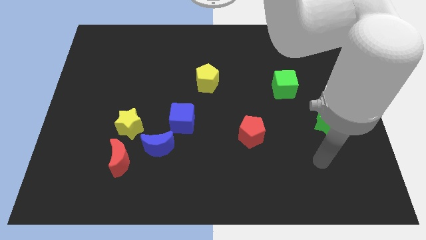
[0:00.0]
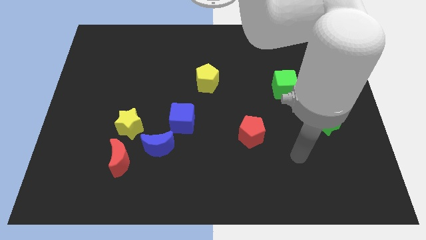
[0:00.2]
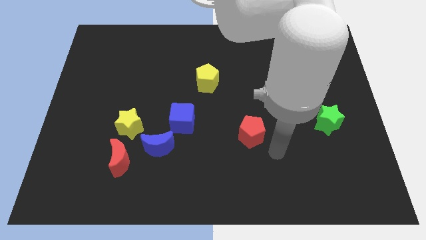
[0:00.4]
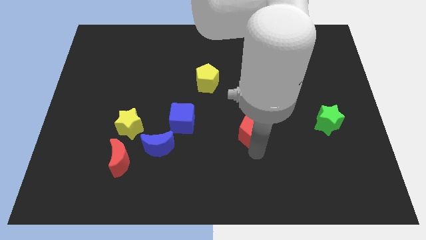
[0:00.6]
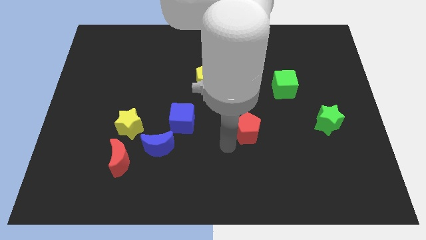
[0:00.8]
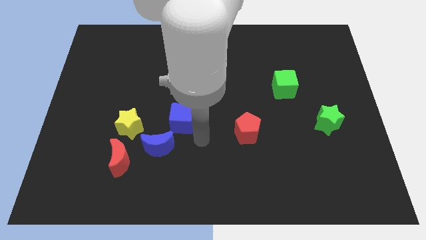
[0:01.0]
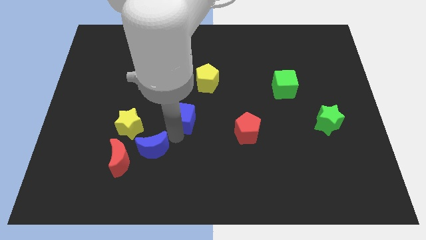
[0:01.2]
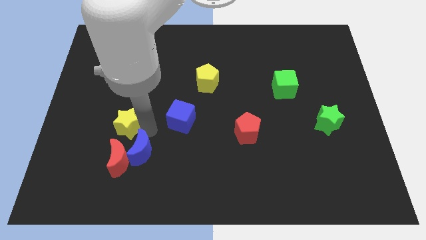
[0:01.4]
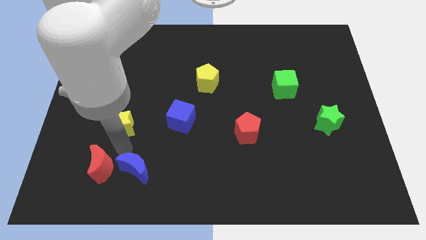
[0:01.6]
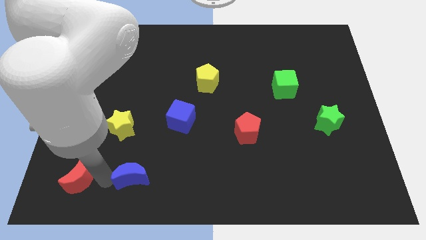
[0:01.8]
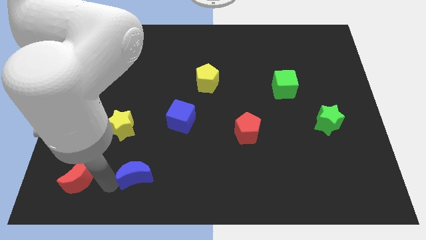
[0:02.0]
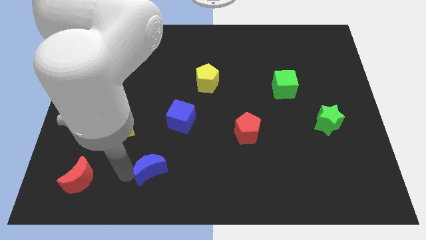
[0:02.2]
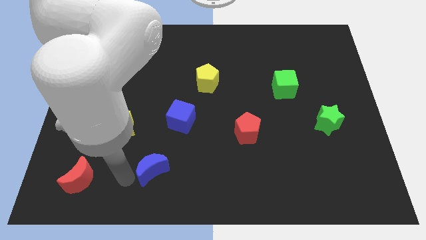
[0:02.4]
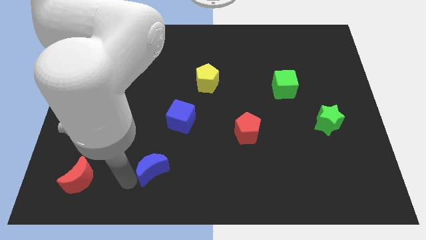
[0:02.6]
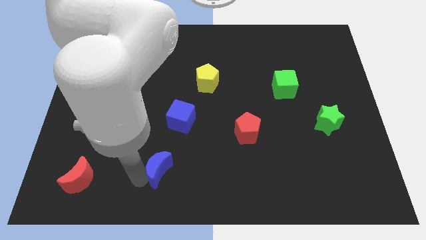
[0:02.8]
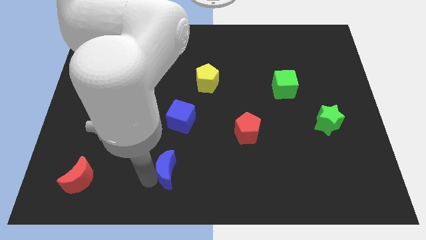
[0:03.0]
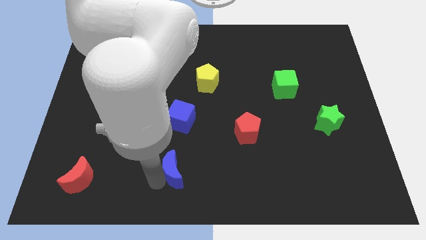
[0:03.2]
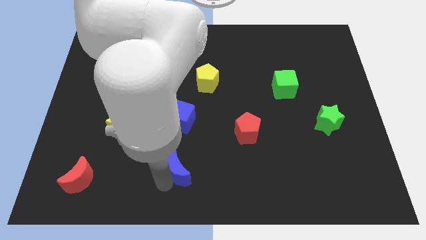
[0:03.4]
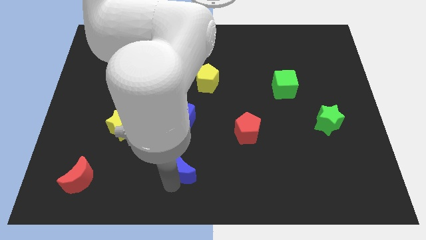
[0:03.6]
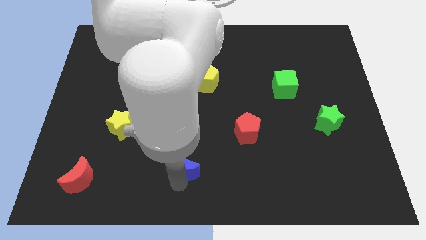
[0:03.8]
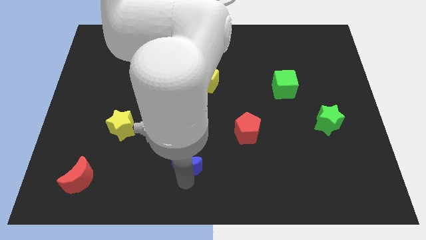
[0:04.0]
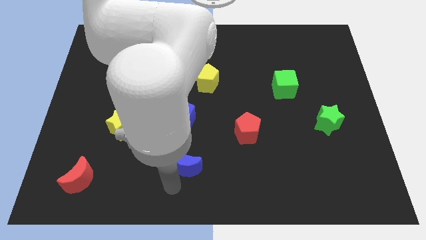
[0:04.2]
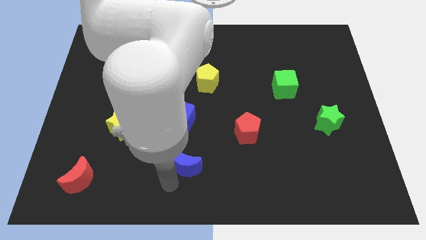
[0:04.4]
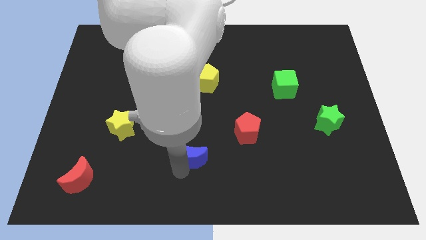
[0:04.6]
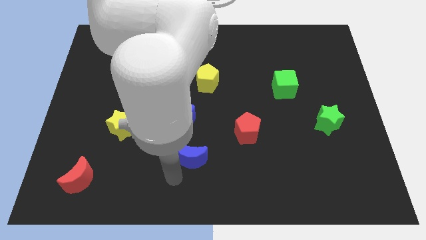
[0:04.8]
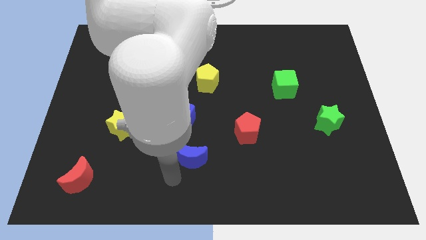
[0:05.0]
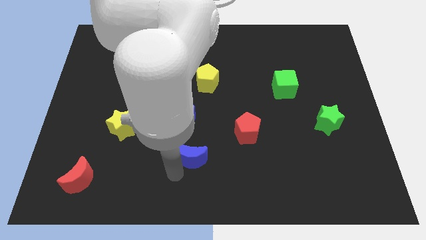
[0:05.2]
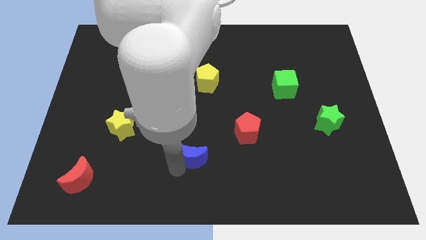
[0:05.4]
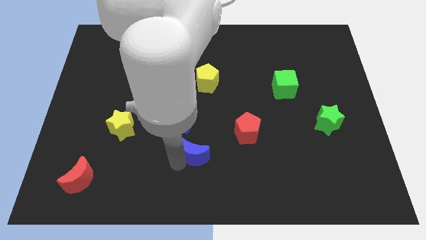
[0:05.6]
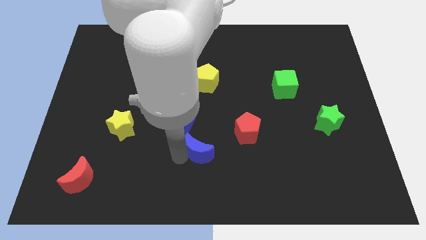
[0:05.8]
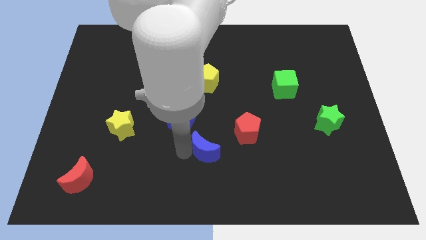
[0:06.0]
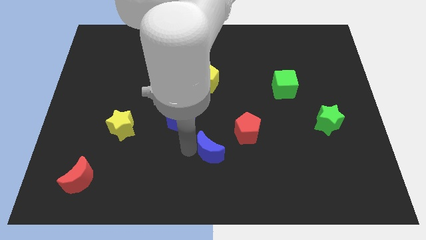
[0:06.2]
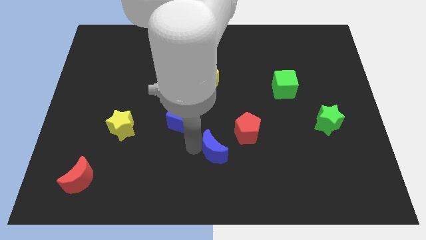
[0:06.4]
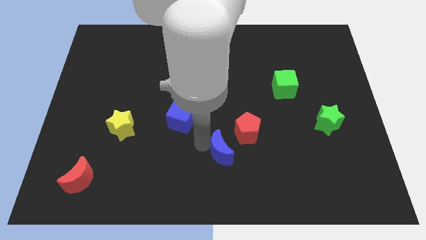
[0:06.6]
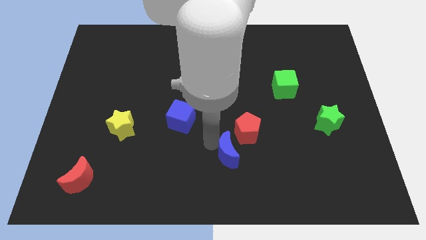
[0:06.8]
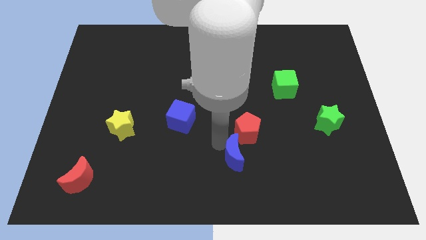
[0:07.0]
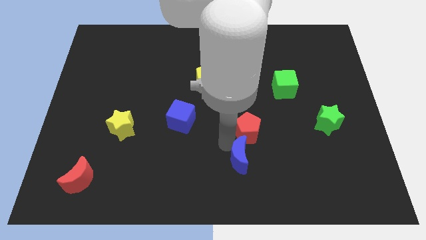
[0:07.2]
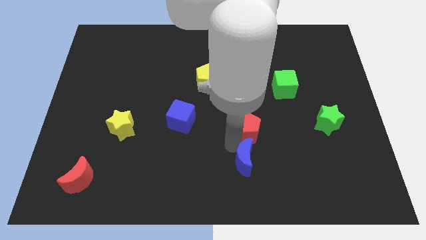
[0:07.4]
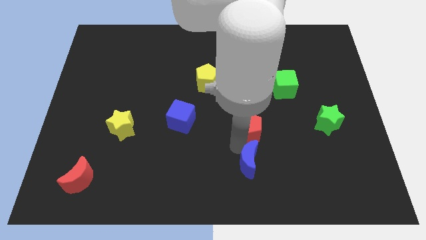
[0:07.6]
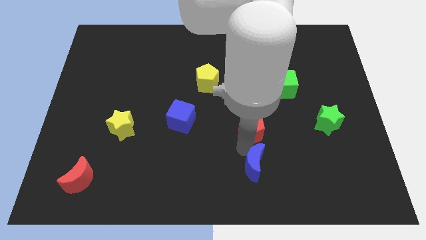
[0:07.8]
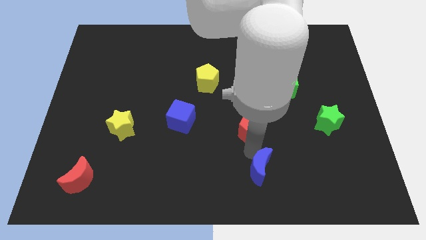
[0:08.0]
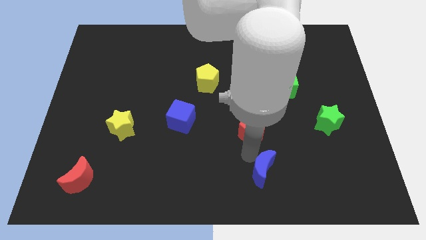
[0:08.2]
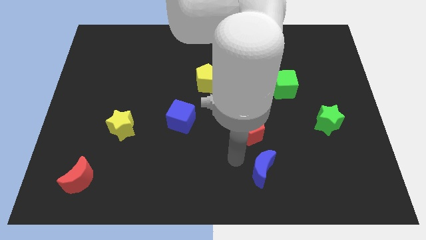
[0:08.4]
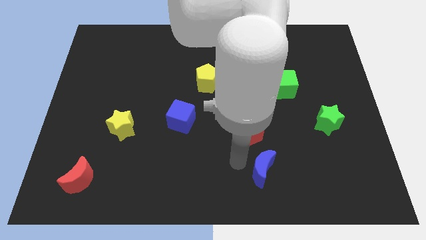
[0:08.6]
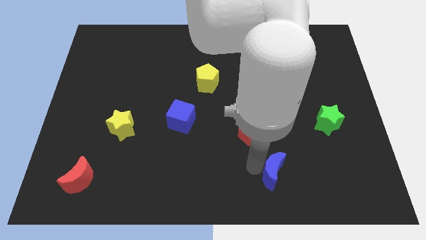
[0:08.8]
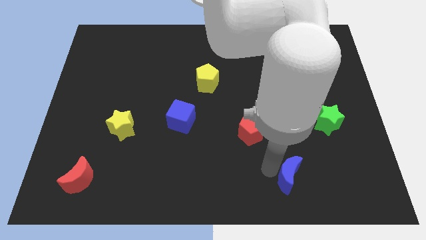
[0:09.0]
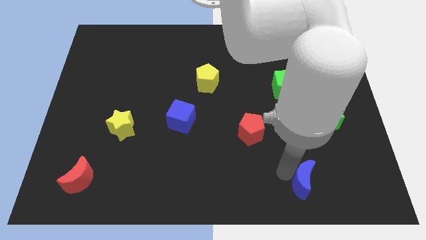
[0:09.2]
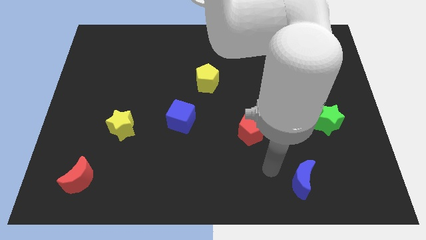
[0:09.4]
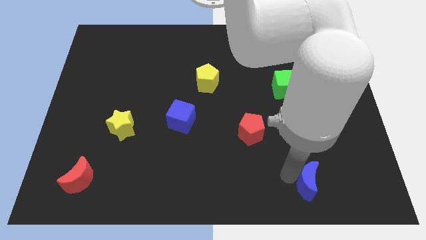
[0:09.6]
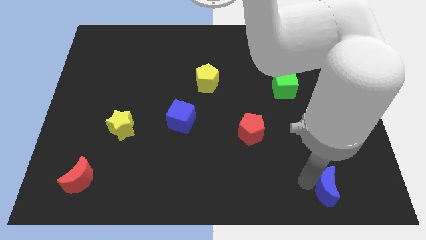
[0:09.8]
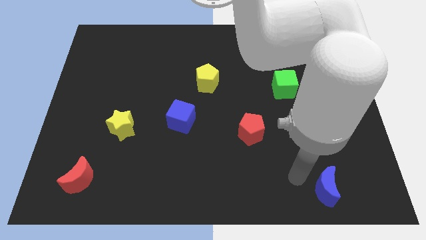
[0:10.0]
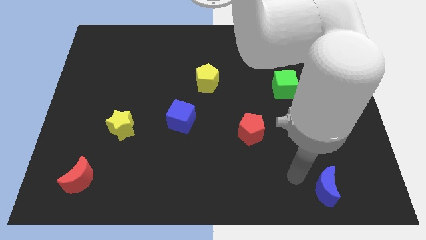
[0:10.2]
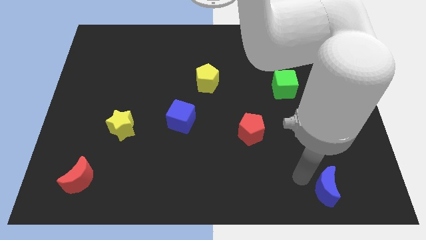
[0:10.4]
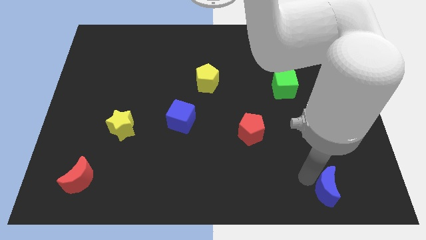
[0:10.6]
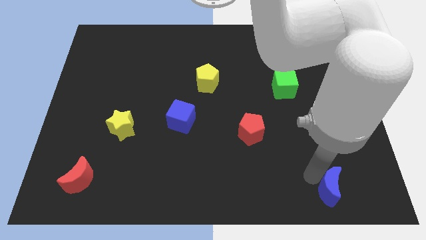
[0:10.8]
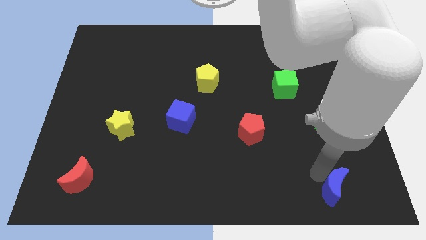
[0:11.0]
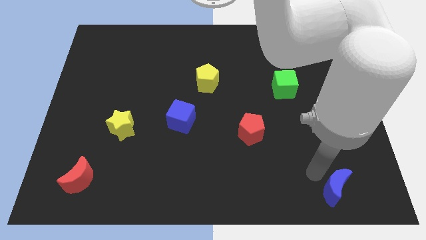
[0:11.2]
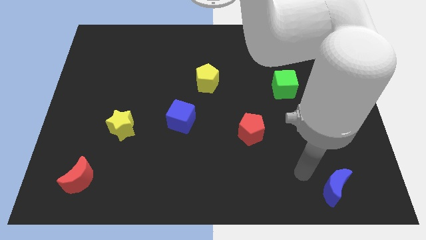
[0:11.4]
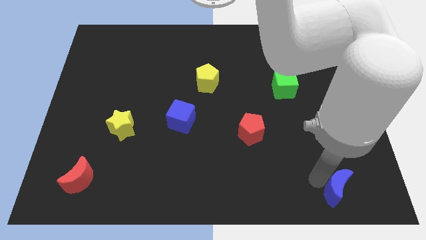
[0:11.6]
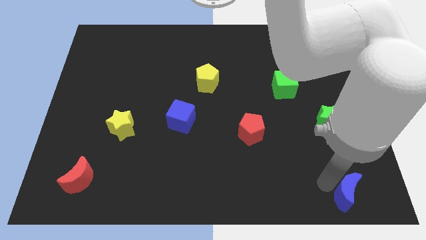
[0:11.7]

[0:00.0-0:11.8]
slide the blue moon to the bottom right corner

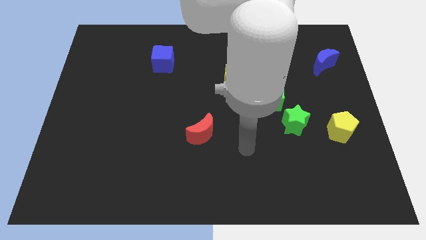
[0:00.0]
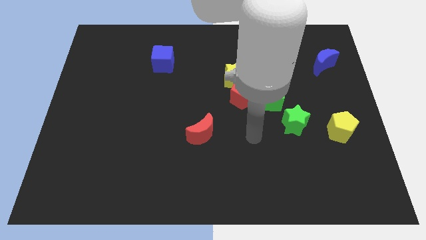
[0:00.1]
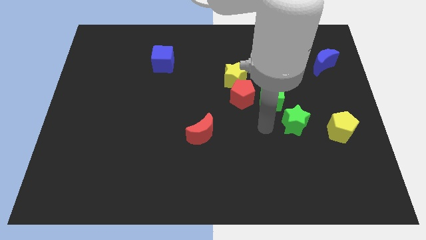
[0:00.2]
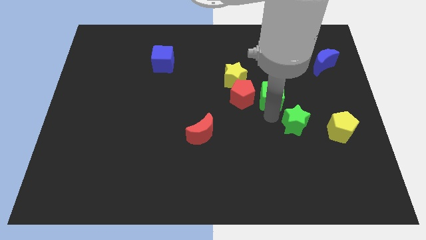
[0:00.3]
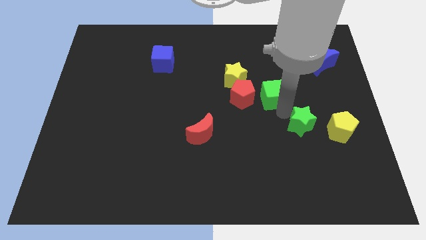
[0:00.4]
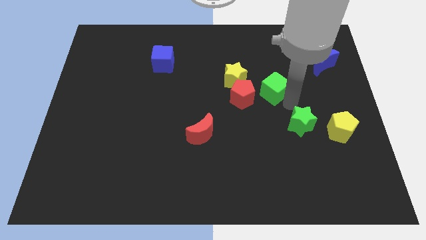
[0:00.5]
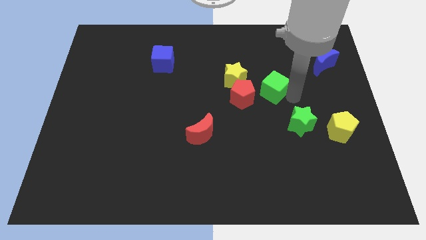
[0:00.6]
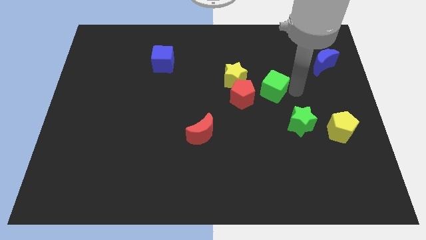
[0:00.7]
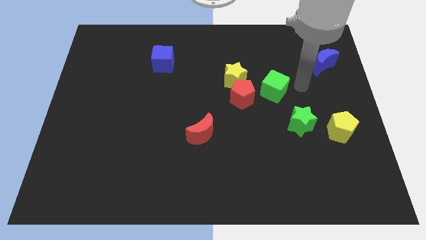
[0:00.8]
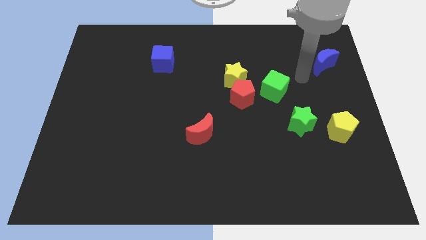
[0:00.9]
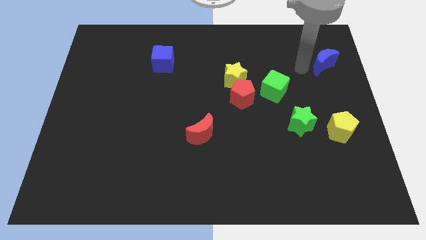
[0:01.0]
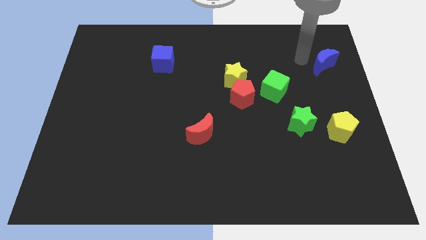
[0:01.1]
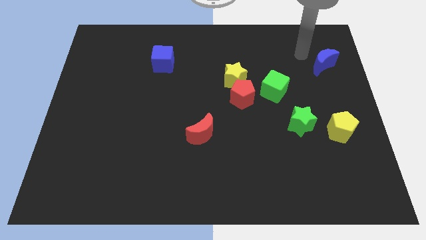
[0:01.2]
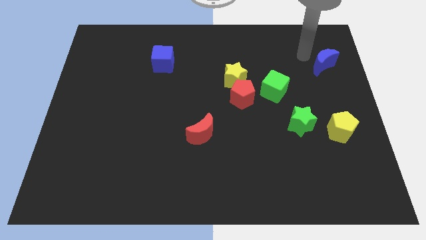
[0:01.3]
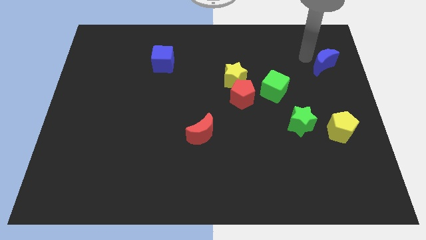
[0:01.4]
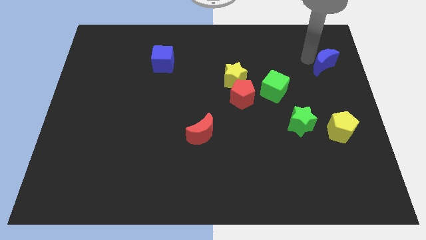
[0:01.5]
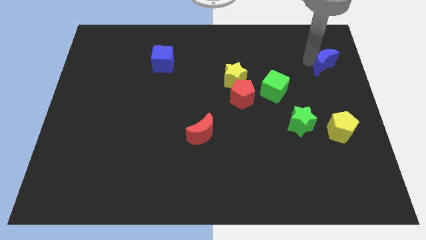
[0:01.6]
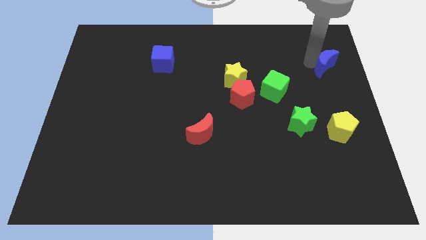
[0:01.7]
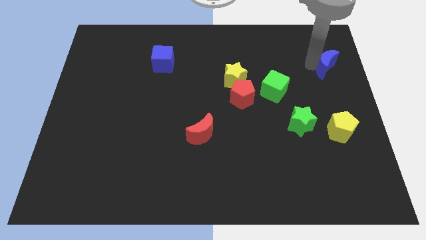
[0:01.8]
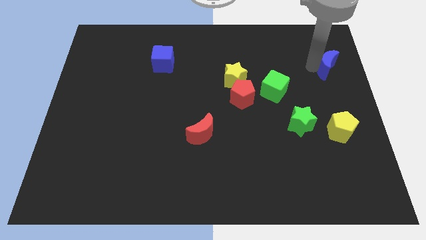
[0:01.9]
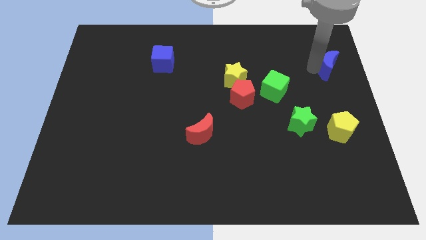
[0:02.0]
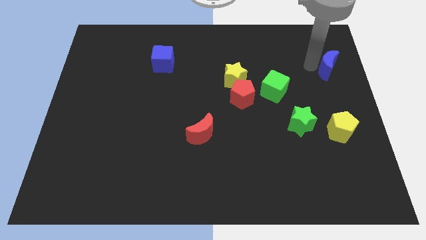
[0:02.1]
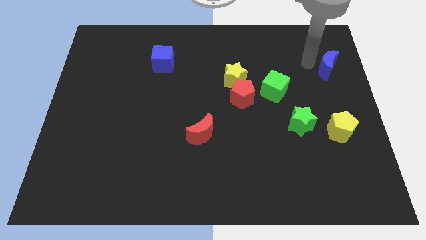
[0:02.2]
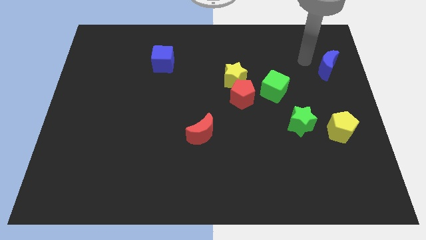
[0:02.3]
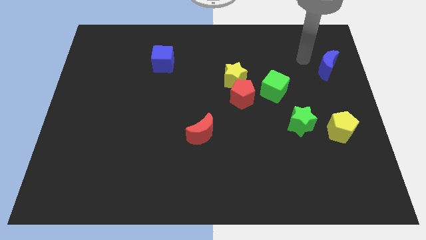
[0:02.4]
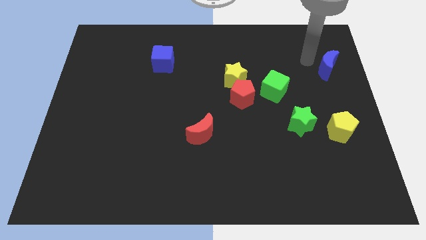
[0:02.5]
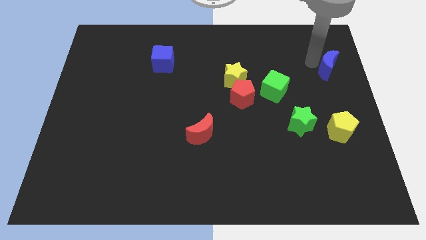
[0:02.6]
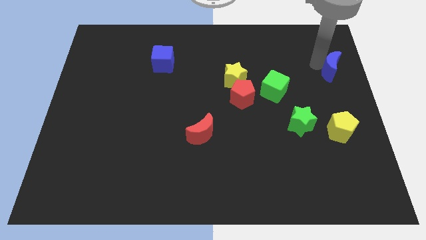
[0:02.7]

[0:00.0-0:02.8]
push the blue moon to the right side of the board
